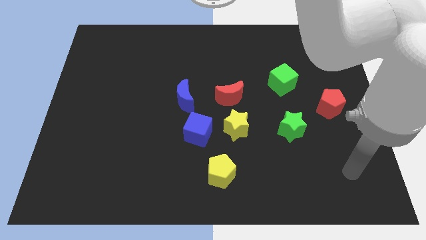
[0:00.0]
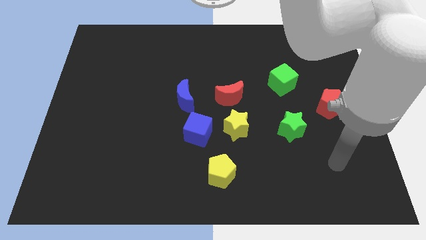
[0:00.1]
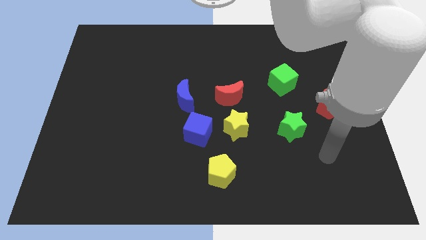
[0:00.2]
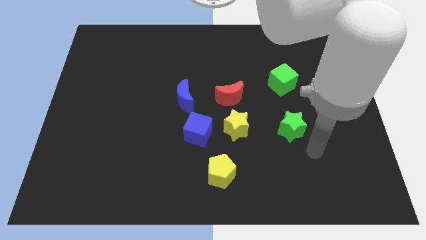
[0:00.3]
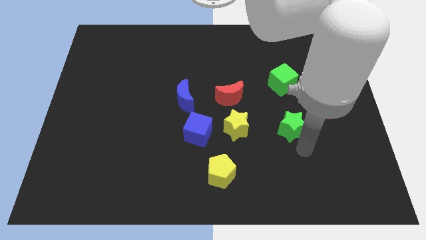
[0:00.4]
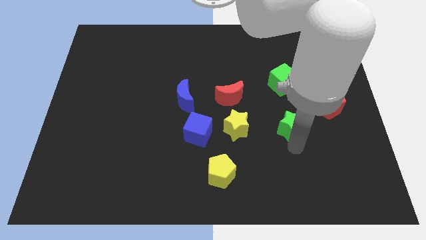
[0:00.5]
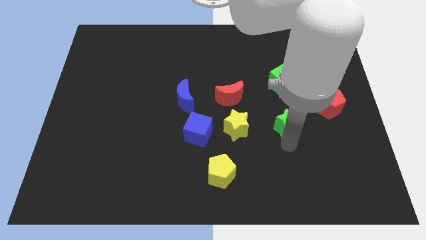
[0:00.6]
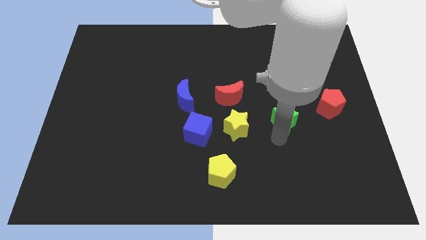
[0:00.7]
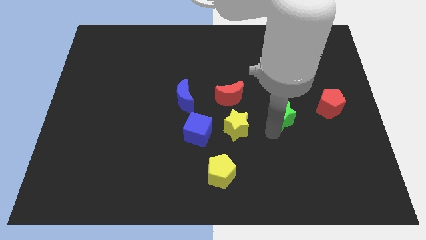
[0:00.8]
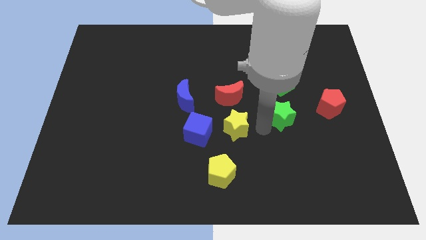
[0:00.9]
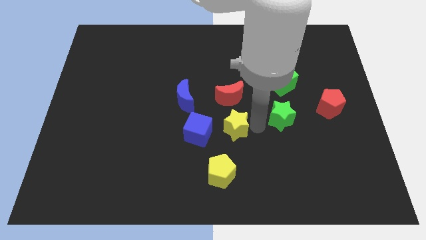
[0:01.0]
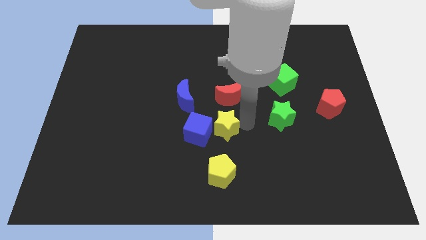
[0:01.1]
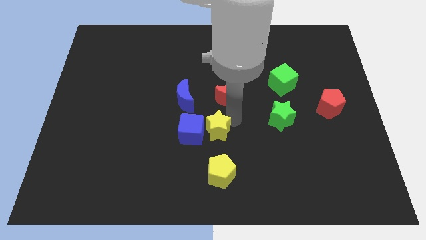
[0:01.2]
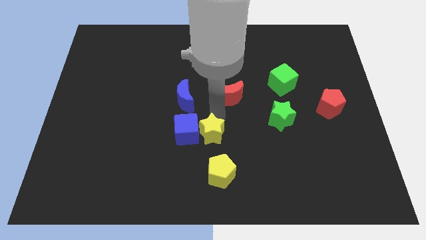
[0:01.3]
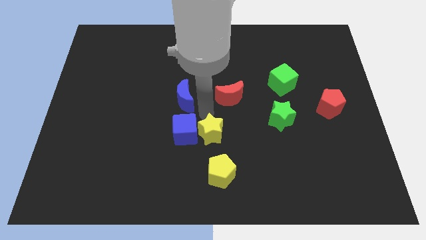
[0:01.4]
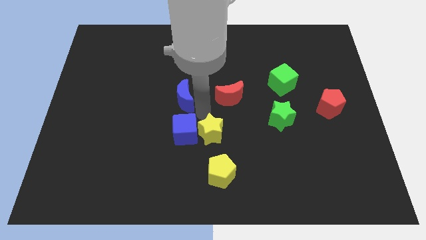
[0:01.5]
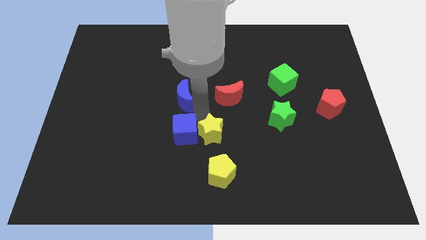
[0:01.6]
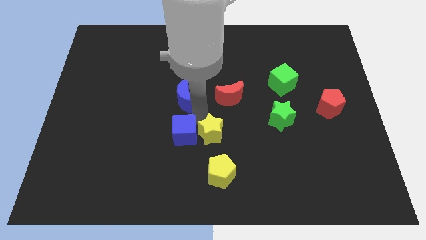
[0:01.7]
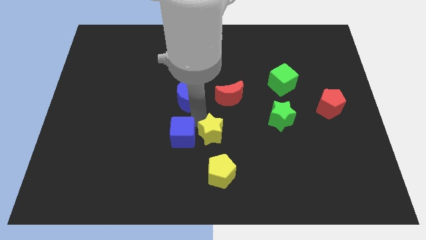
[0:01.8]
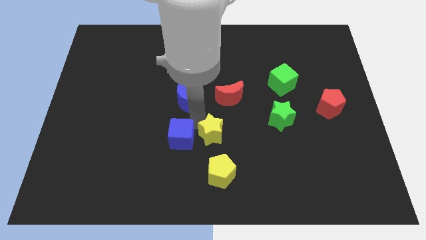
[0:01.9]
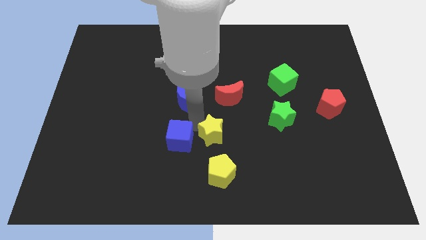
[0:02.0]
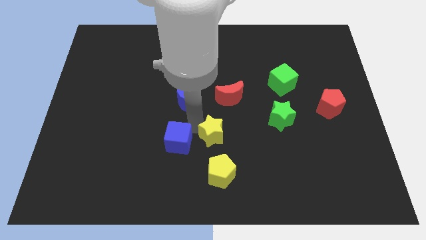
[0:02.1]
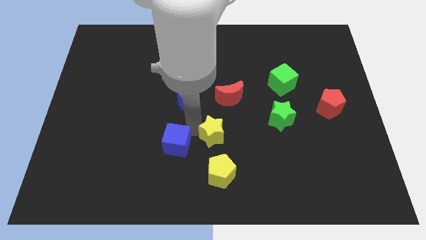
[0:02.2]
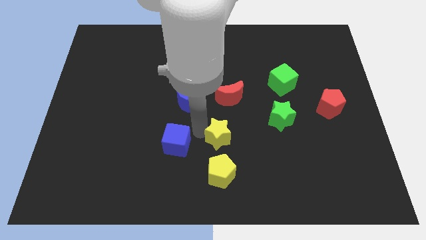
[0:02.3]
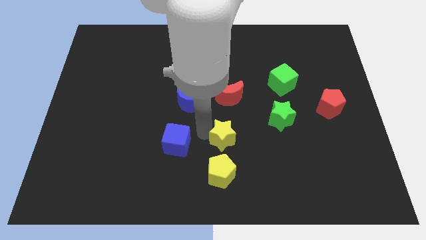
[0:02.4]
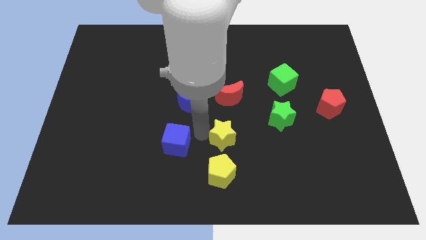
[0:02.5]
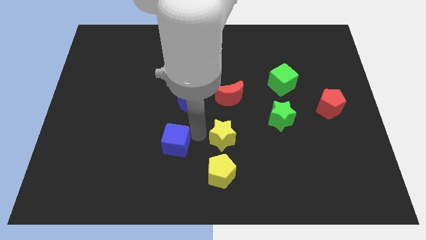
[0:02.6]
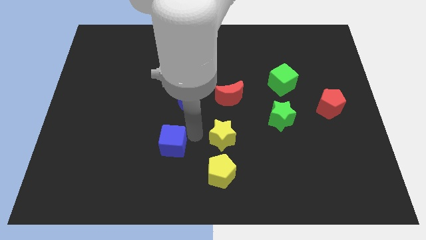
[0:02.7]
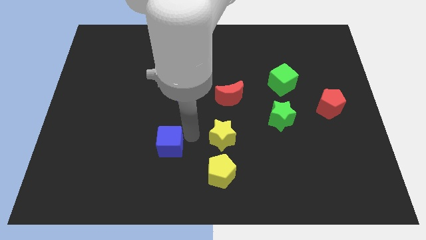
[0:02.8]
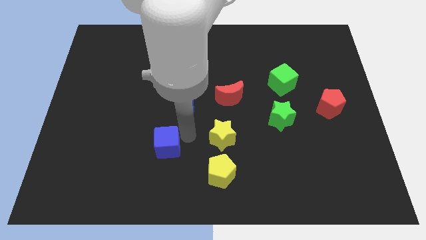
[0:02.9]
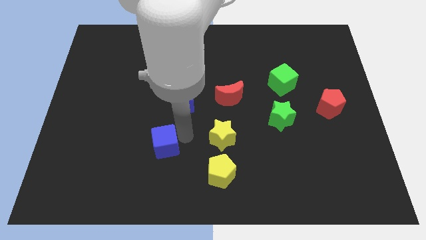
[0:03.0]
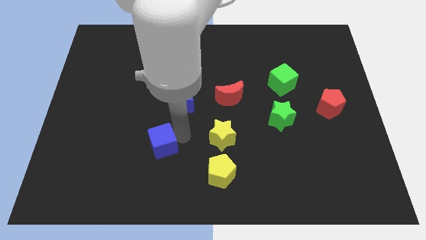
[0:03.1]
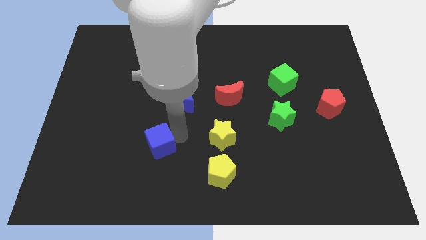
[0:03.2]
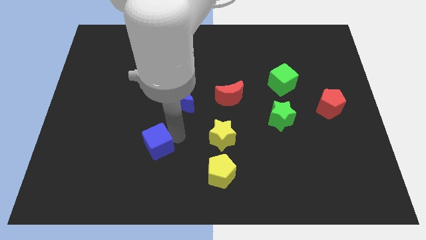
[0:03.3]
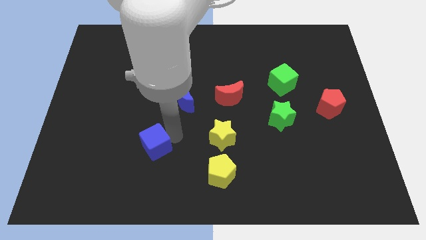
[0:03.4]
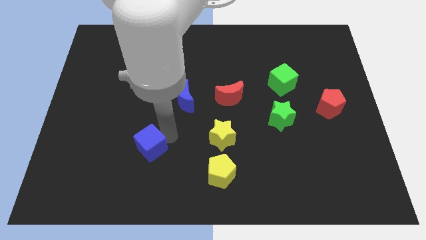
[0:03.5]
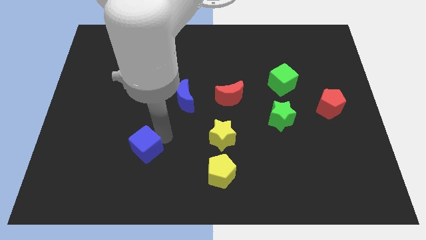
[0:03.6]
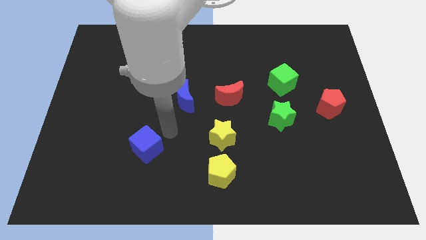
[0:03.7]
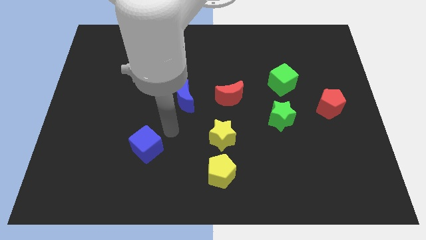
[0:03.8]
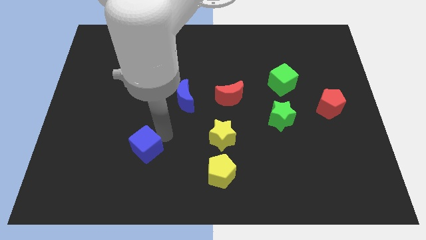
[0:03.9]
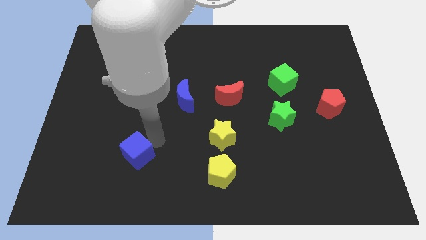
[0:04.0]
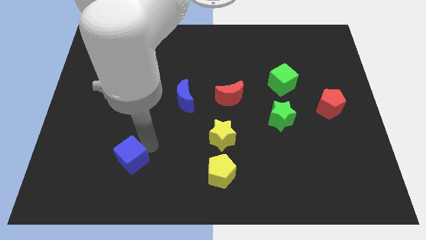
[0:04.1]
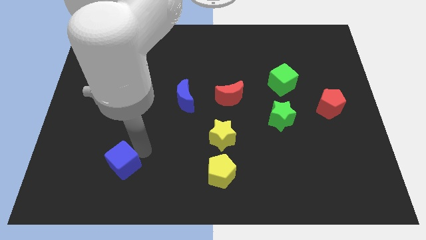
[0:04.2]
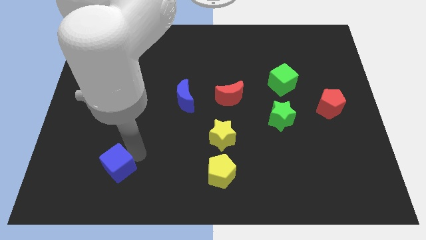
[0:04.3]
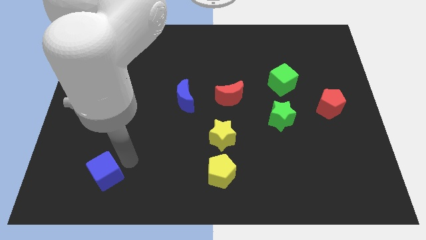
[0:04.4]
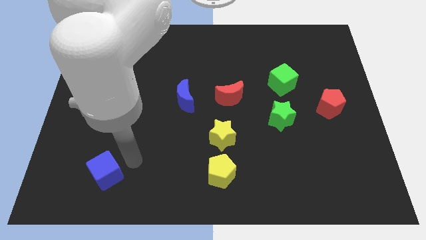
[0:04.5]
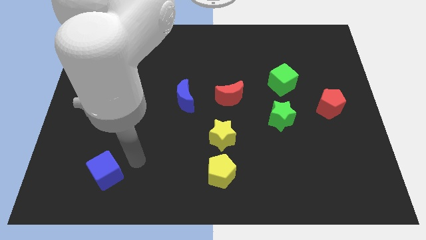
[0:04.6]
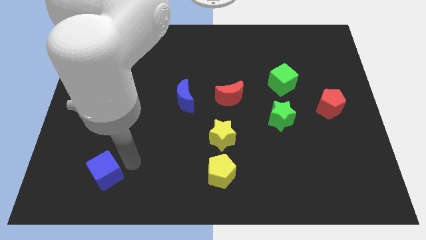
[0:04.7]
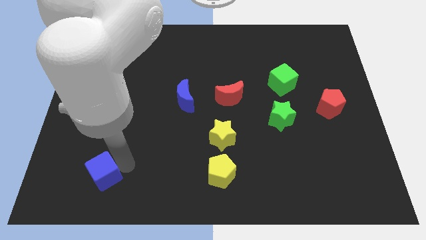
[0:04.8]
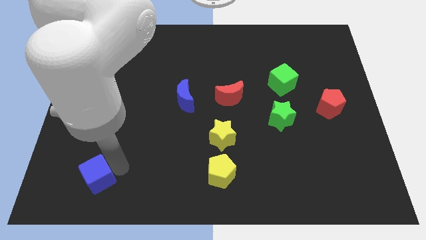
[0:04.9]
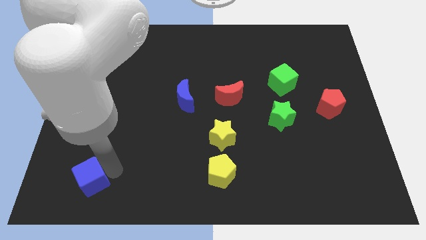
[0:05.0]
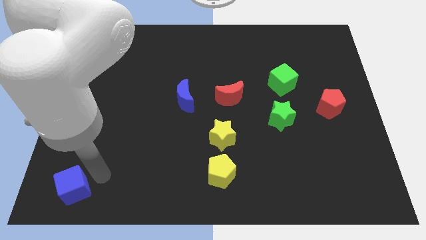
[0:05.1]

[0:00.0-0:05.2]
put the blue cube to the bottom left of the board

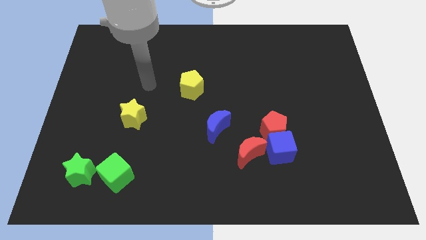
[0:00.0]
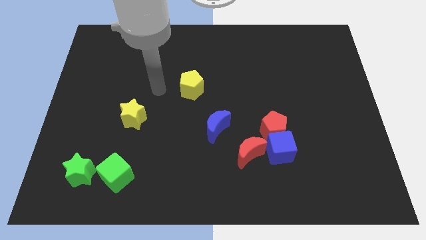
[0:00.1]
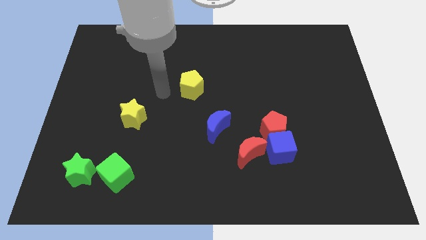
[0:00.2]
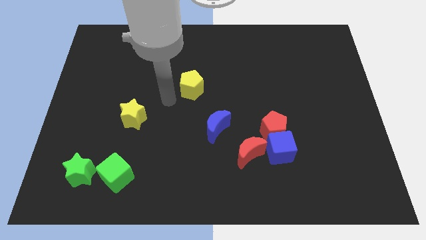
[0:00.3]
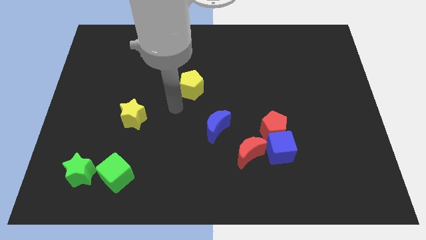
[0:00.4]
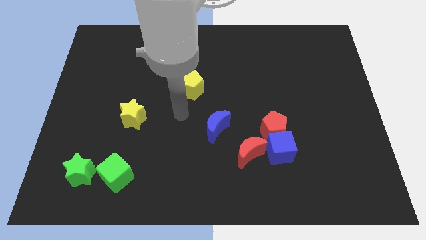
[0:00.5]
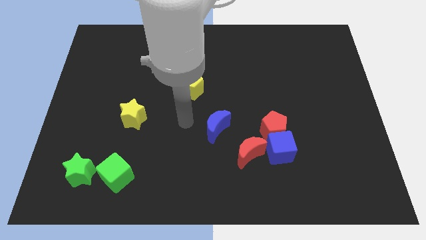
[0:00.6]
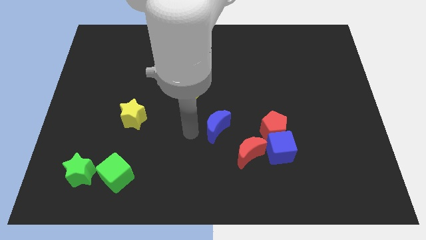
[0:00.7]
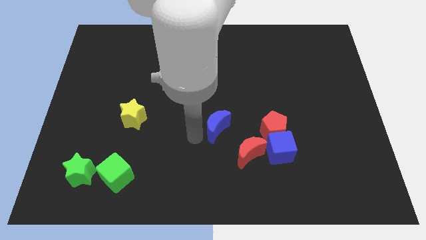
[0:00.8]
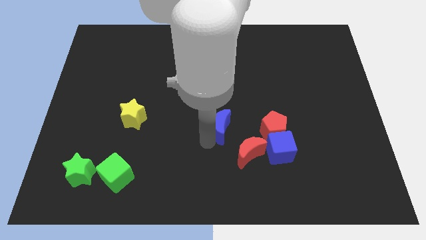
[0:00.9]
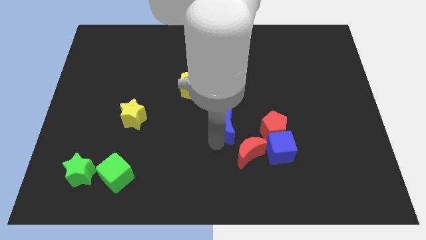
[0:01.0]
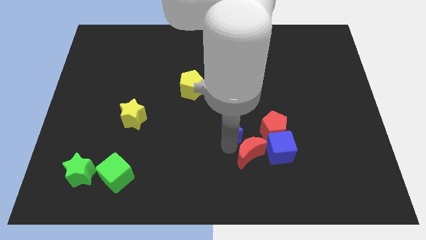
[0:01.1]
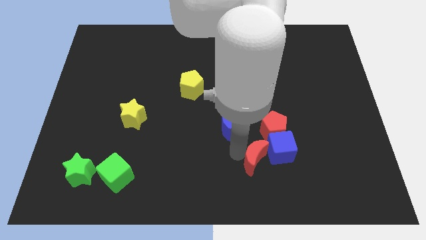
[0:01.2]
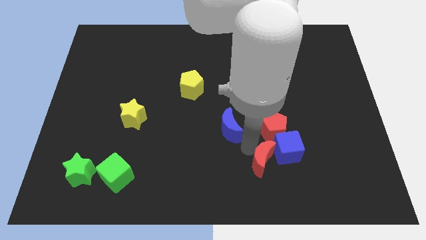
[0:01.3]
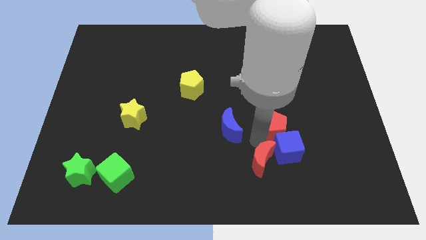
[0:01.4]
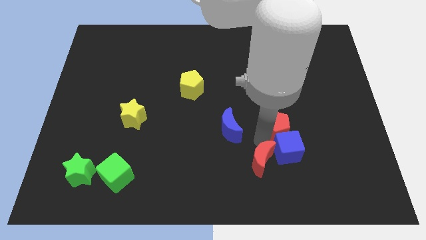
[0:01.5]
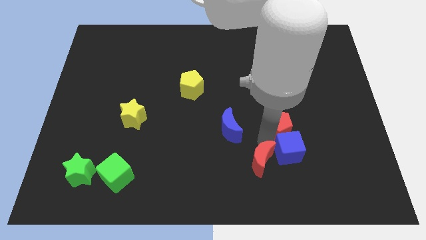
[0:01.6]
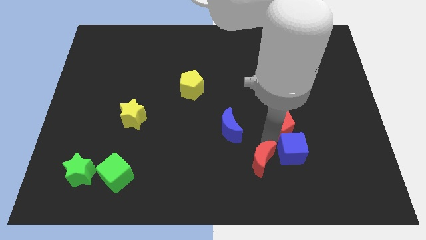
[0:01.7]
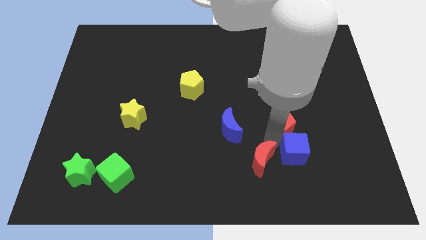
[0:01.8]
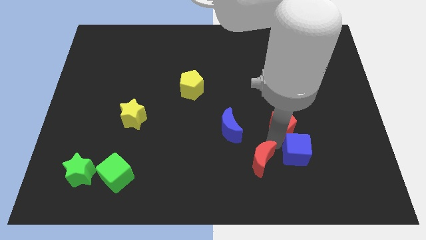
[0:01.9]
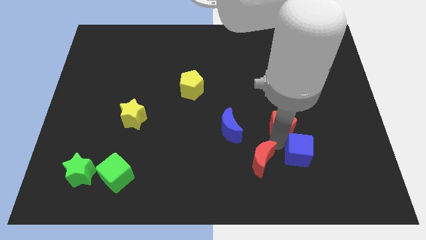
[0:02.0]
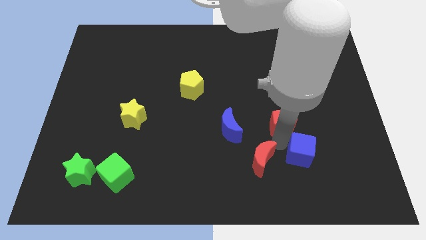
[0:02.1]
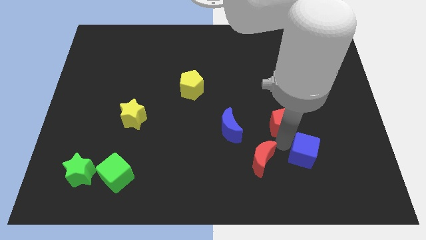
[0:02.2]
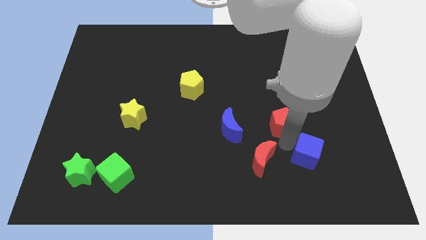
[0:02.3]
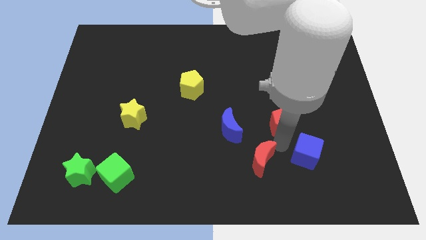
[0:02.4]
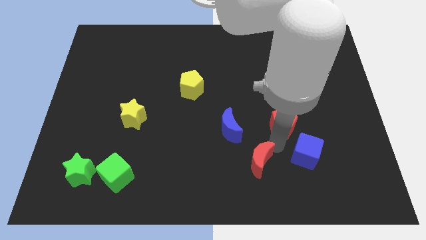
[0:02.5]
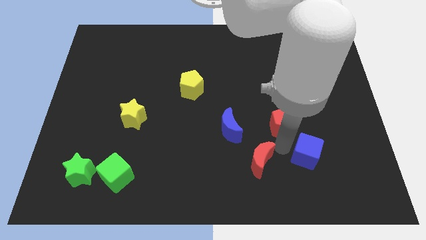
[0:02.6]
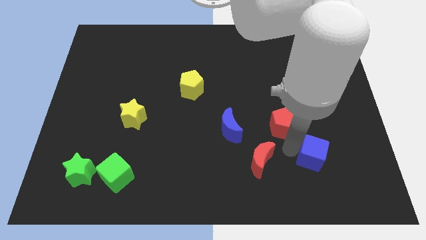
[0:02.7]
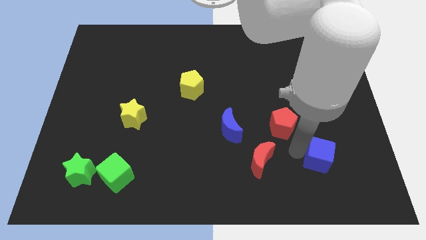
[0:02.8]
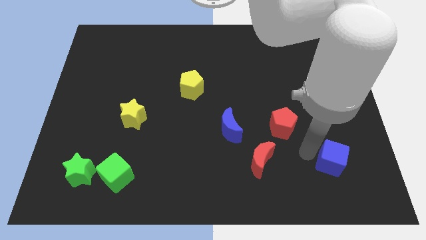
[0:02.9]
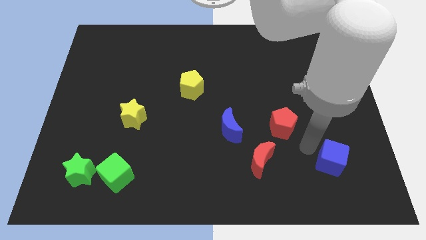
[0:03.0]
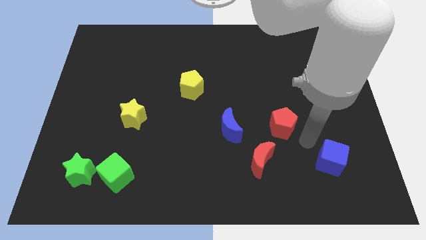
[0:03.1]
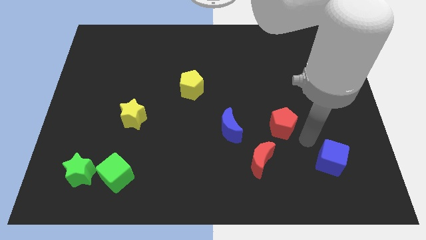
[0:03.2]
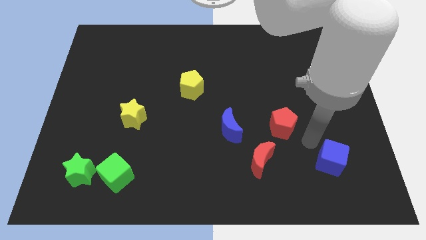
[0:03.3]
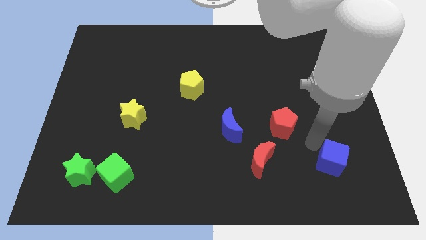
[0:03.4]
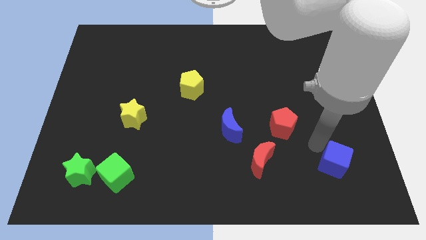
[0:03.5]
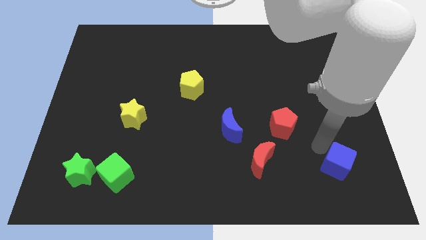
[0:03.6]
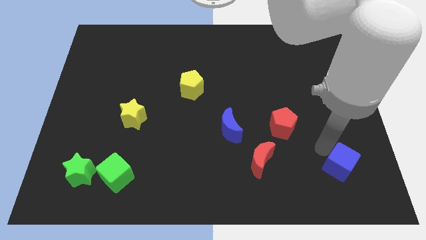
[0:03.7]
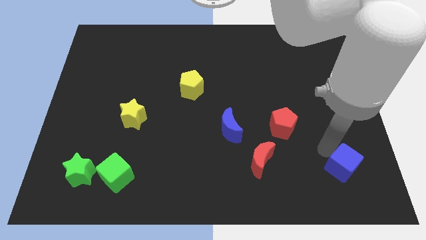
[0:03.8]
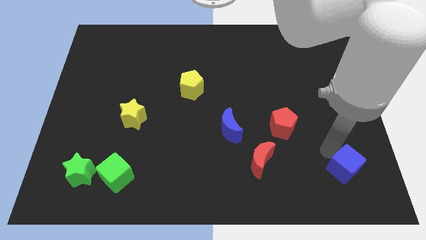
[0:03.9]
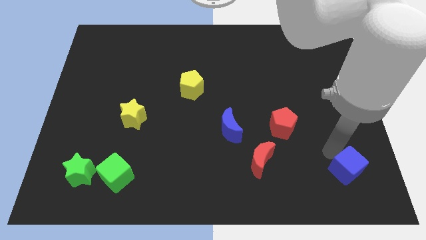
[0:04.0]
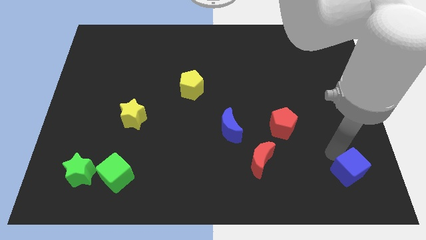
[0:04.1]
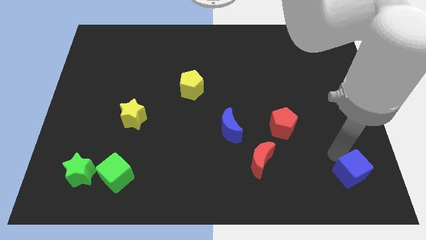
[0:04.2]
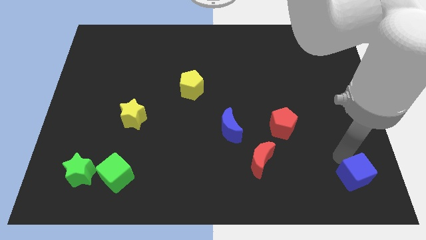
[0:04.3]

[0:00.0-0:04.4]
push the blue cube to the bottom right corner
